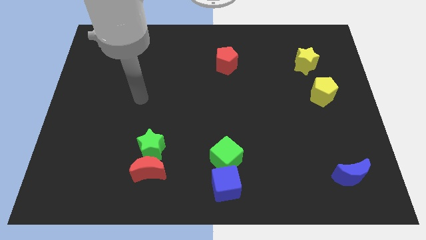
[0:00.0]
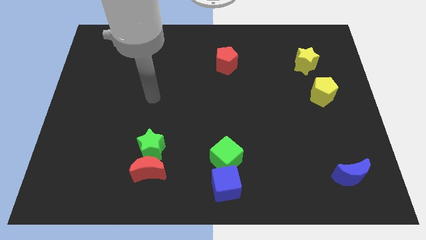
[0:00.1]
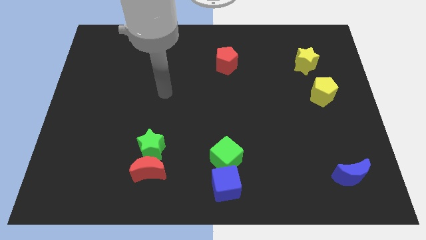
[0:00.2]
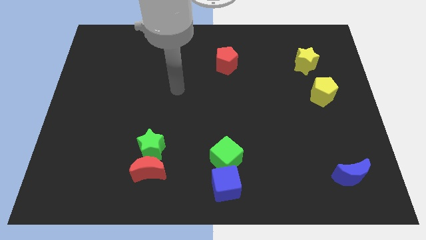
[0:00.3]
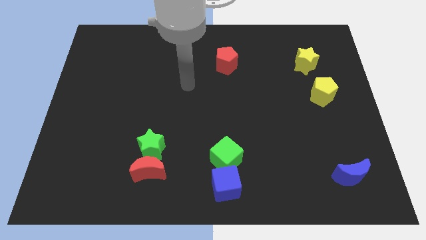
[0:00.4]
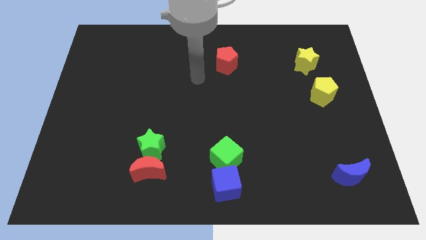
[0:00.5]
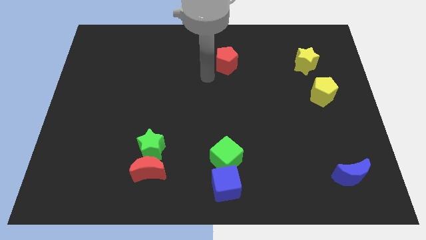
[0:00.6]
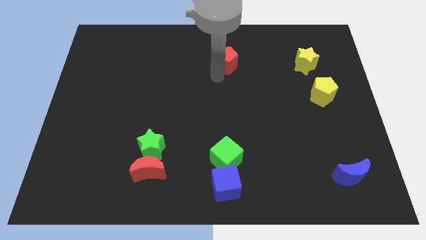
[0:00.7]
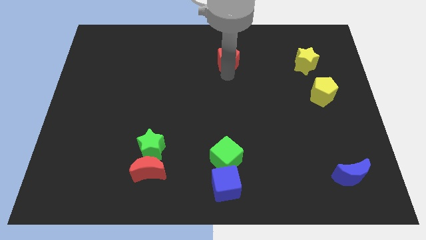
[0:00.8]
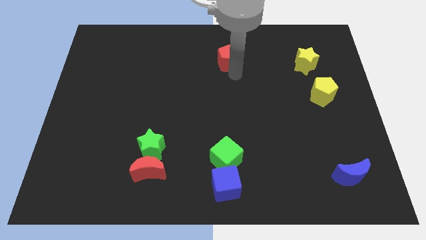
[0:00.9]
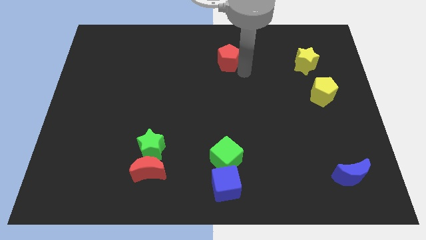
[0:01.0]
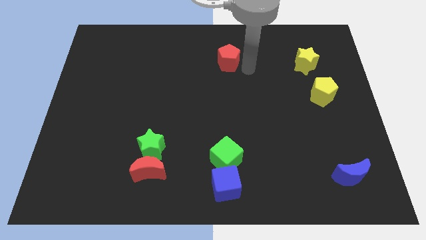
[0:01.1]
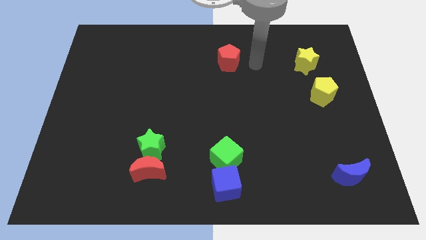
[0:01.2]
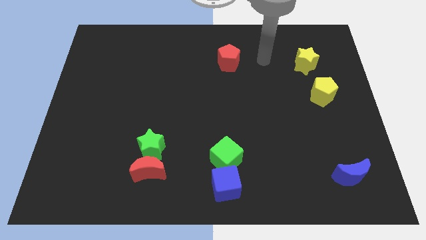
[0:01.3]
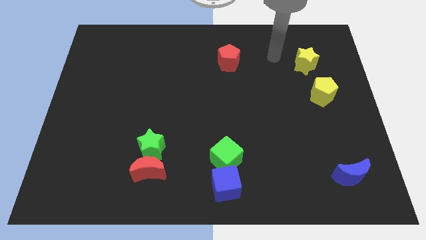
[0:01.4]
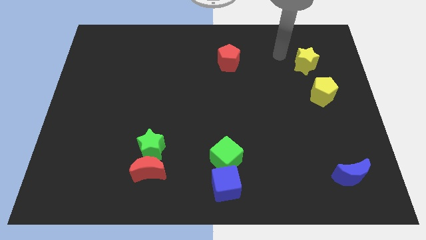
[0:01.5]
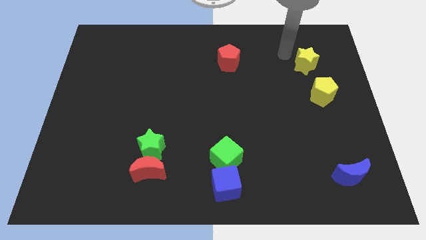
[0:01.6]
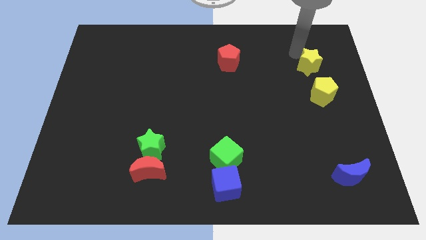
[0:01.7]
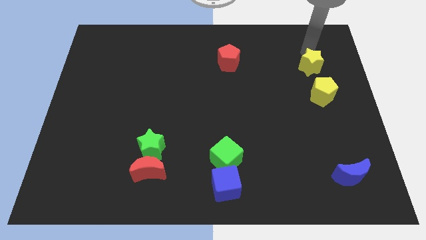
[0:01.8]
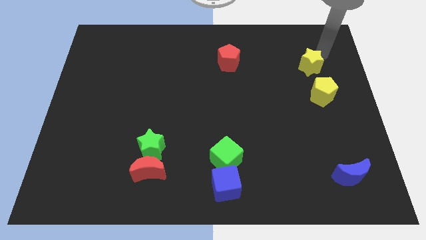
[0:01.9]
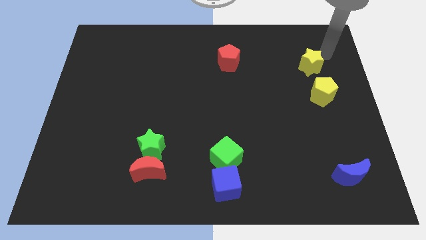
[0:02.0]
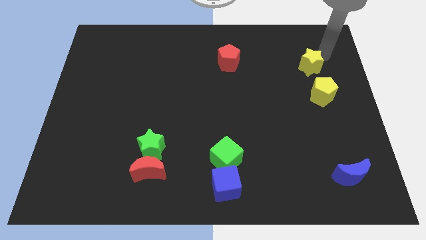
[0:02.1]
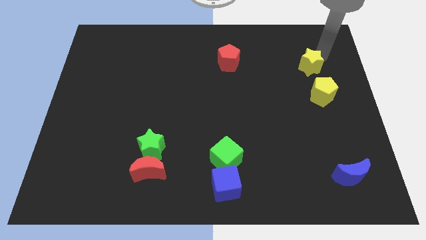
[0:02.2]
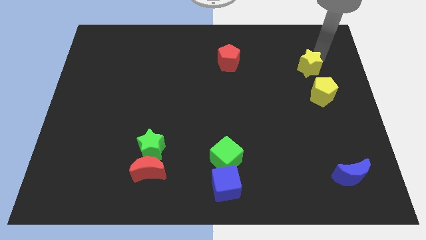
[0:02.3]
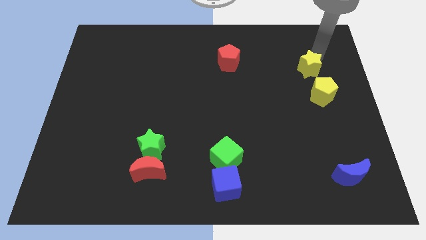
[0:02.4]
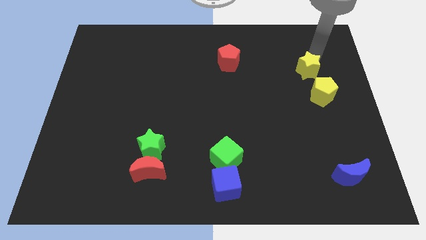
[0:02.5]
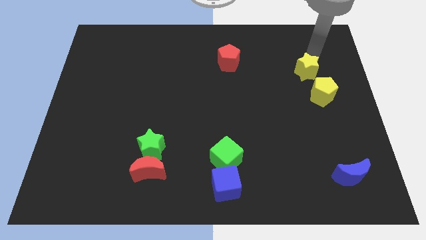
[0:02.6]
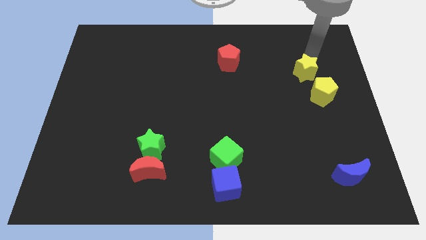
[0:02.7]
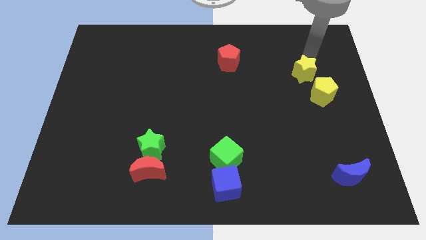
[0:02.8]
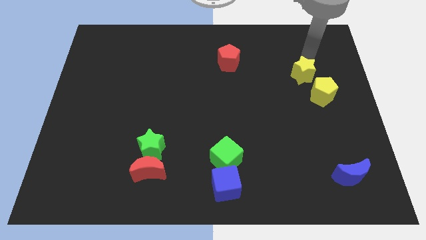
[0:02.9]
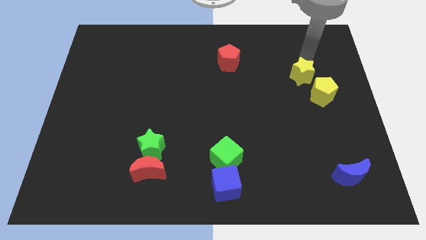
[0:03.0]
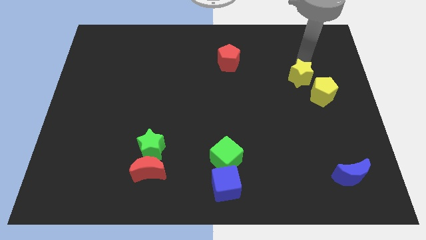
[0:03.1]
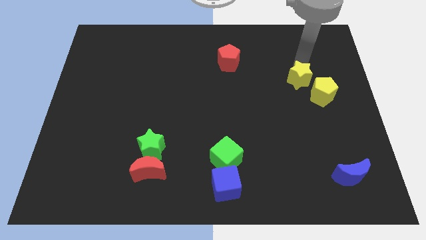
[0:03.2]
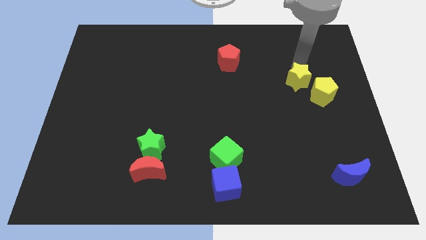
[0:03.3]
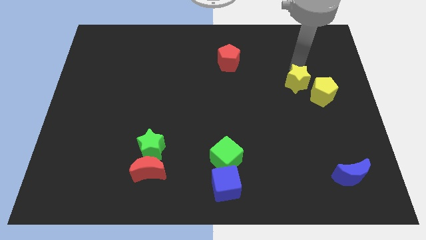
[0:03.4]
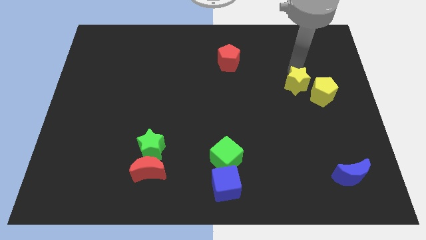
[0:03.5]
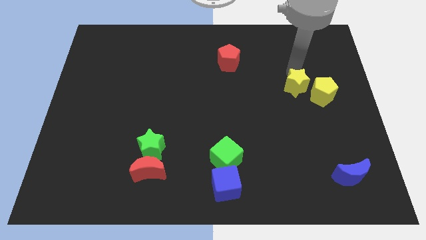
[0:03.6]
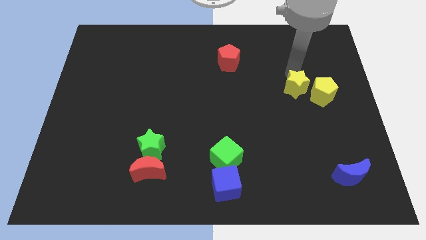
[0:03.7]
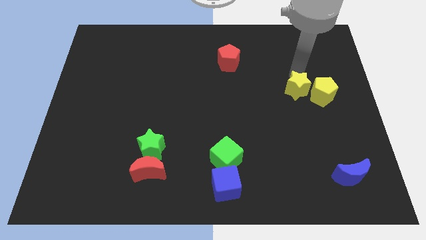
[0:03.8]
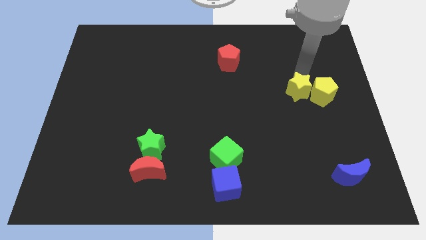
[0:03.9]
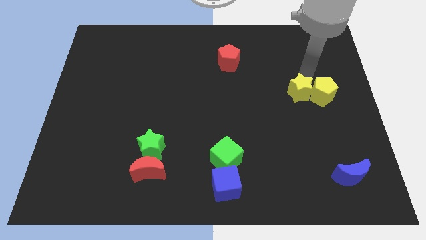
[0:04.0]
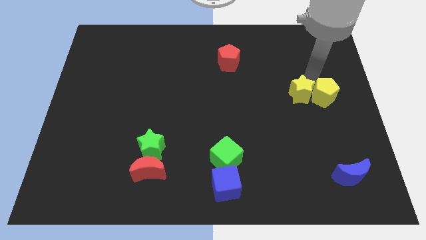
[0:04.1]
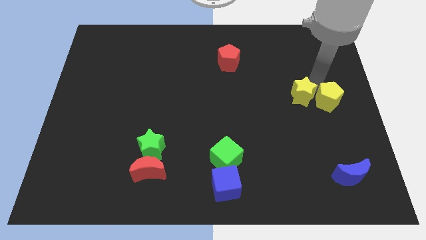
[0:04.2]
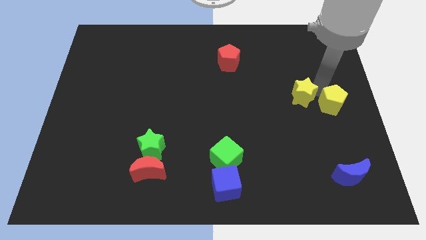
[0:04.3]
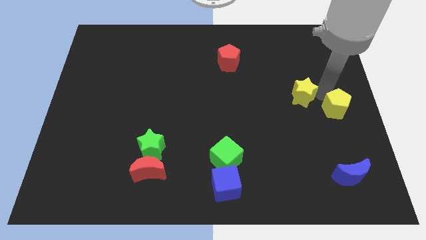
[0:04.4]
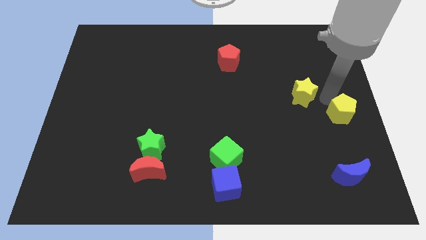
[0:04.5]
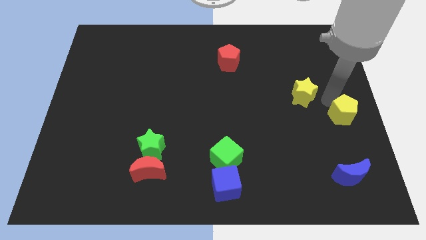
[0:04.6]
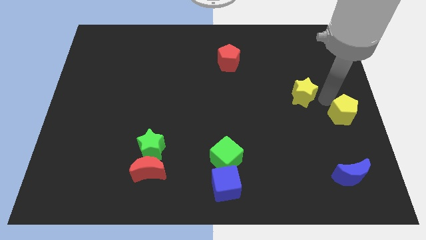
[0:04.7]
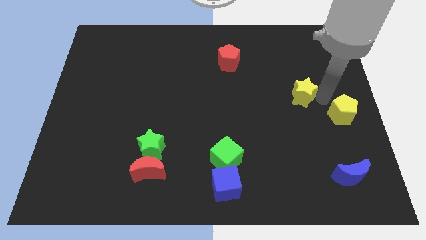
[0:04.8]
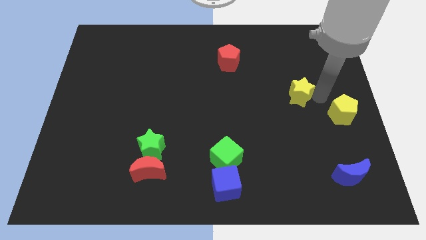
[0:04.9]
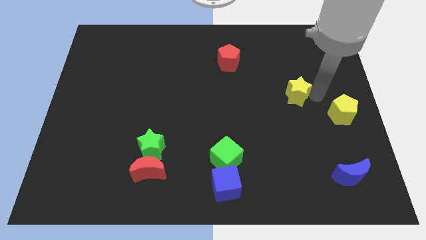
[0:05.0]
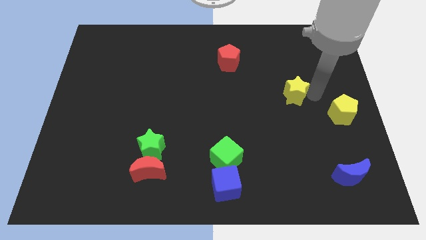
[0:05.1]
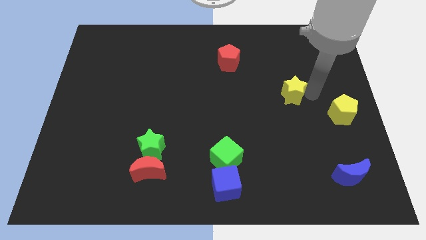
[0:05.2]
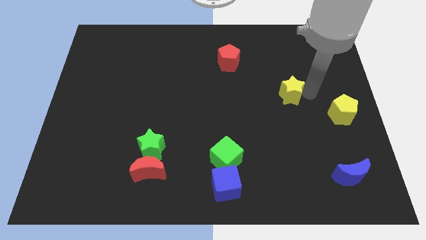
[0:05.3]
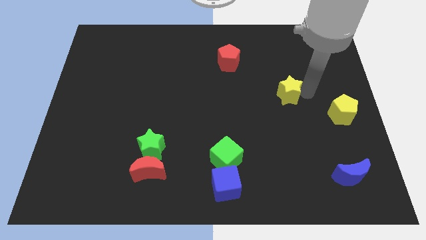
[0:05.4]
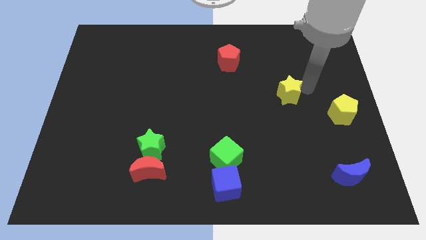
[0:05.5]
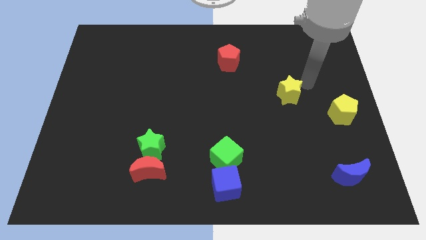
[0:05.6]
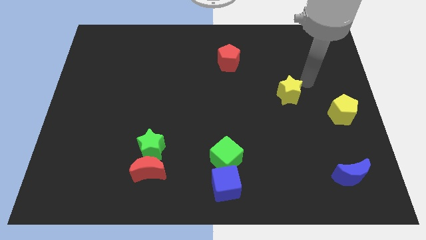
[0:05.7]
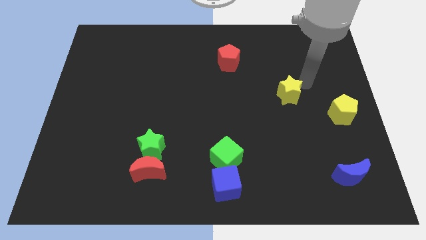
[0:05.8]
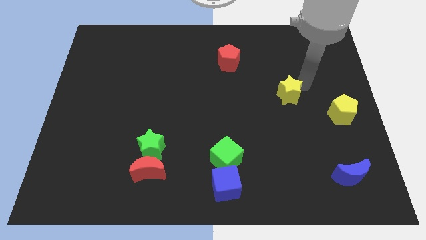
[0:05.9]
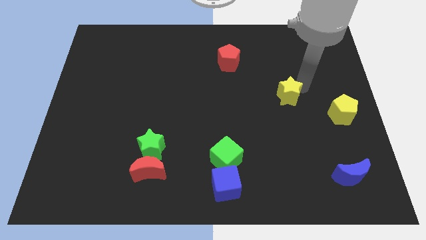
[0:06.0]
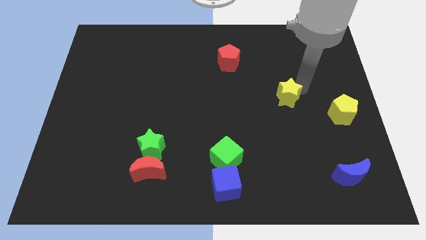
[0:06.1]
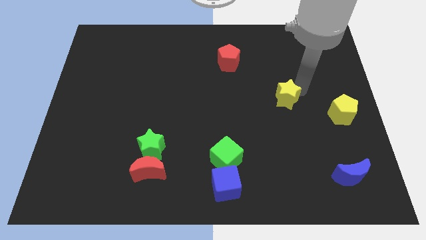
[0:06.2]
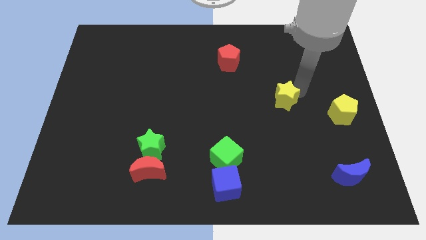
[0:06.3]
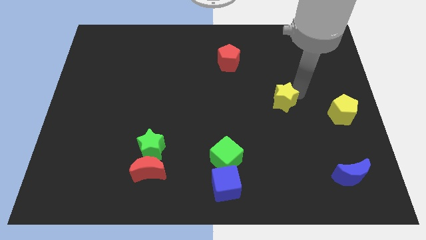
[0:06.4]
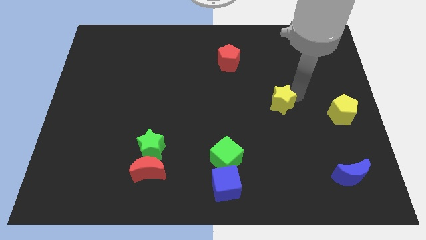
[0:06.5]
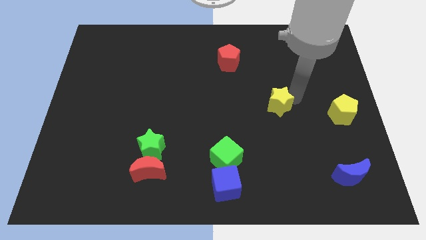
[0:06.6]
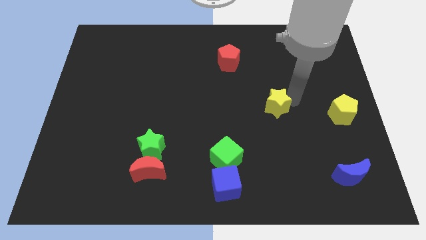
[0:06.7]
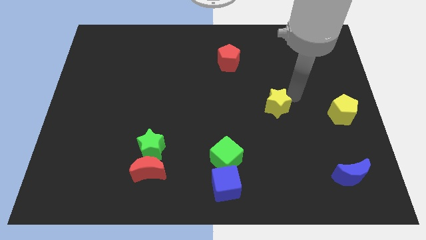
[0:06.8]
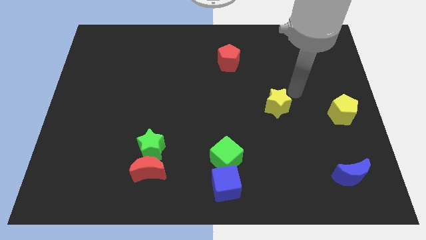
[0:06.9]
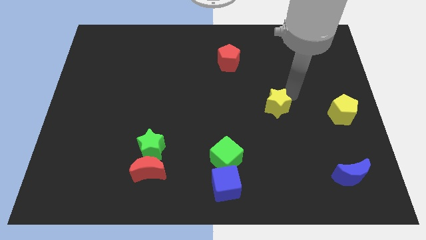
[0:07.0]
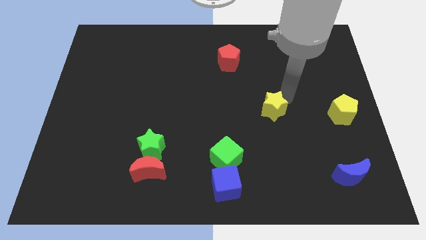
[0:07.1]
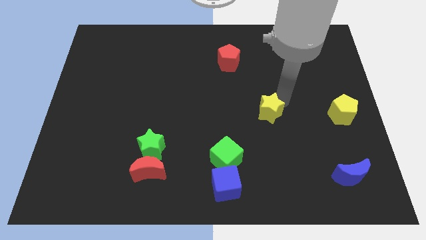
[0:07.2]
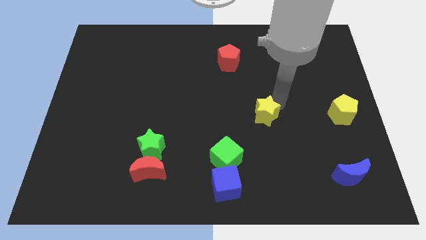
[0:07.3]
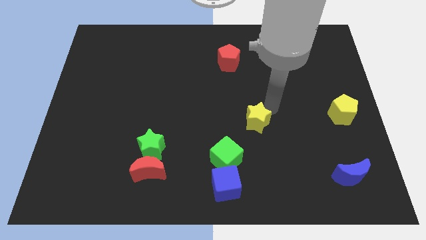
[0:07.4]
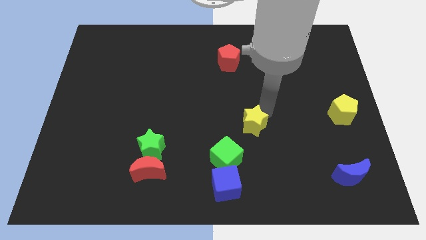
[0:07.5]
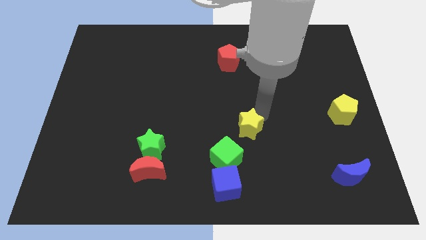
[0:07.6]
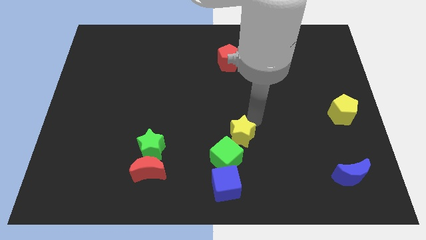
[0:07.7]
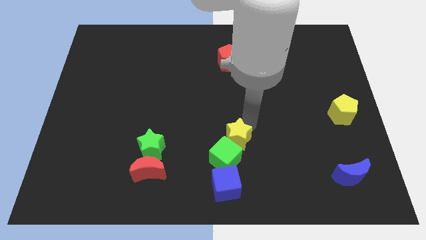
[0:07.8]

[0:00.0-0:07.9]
push the yellow star to the green cube
